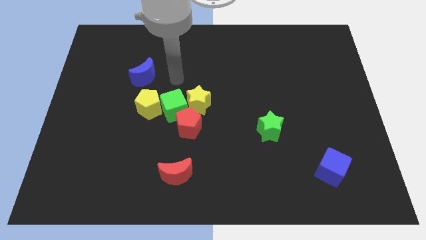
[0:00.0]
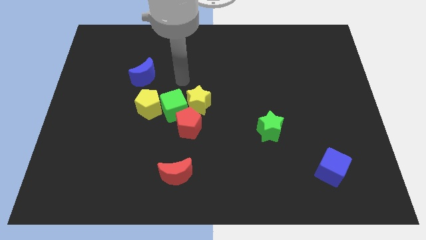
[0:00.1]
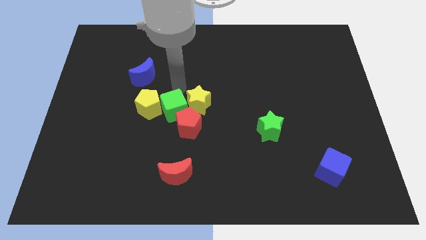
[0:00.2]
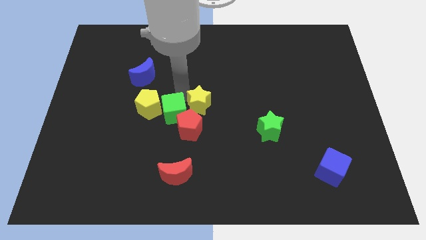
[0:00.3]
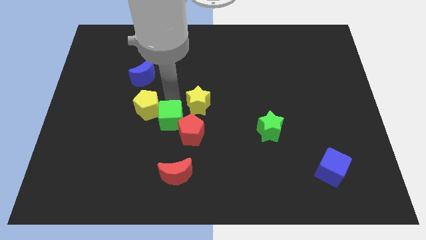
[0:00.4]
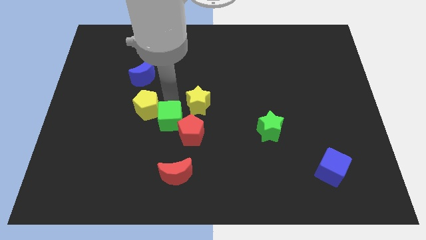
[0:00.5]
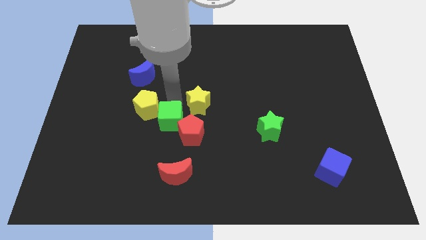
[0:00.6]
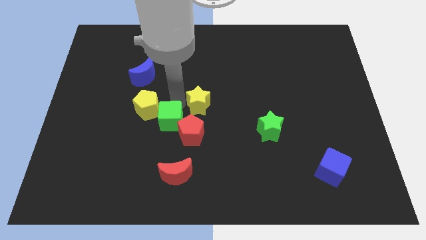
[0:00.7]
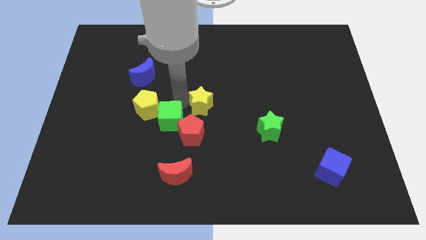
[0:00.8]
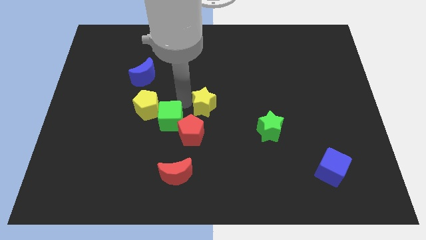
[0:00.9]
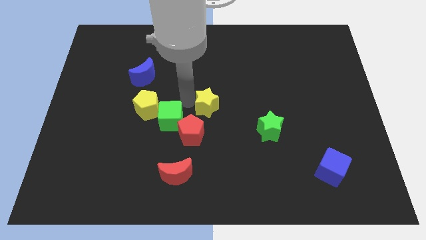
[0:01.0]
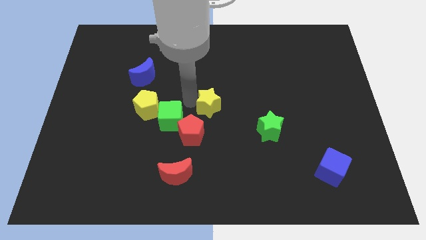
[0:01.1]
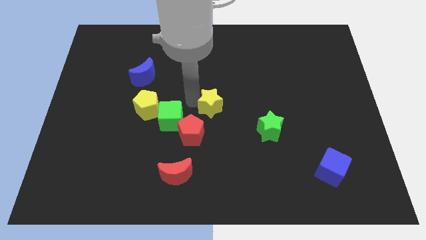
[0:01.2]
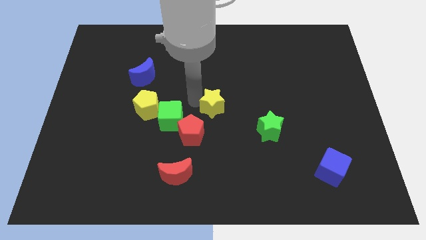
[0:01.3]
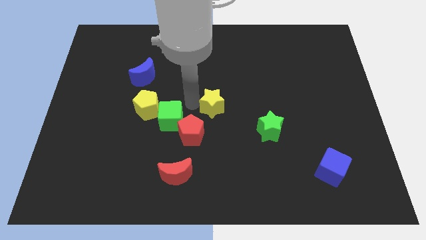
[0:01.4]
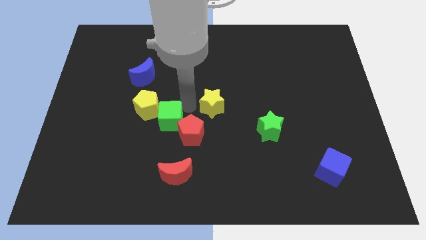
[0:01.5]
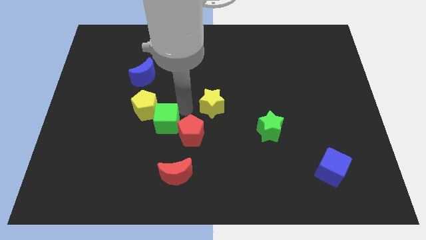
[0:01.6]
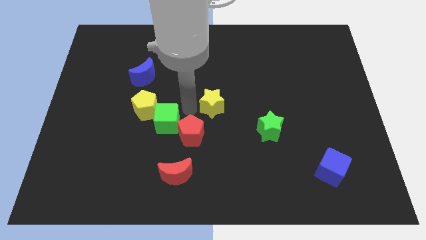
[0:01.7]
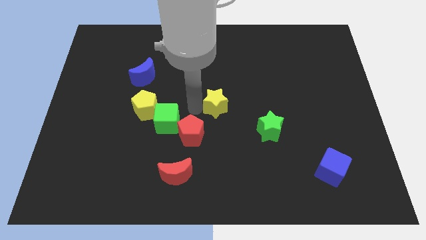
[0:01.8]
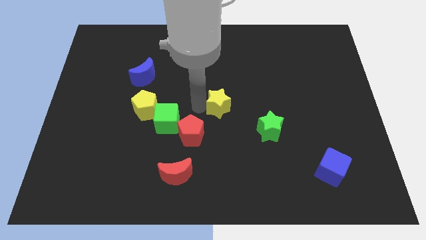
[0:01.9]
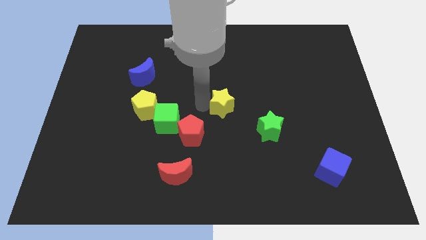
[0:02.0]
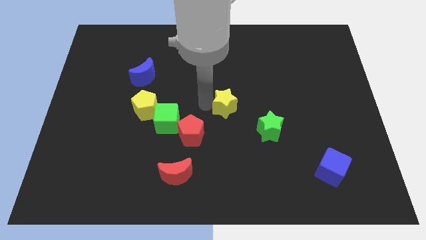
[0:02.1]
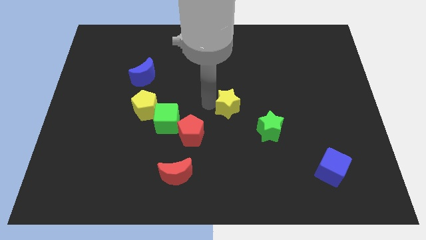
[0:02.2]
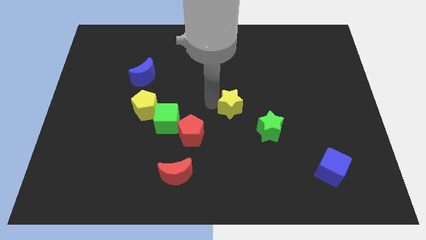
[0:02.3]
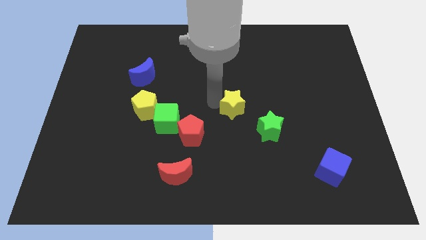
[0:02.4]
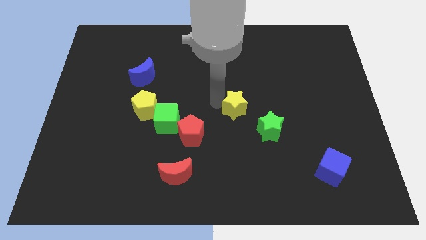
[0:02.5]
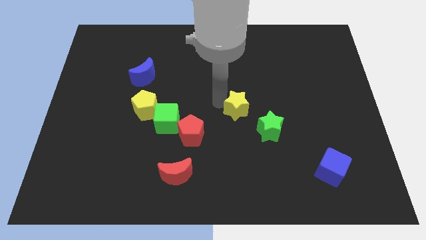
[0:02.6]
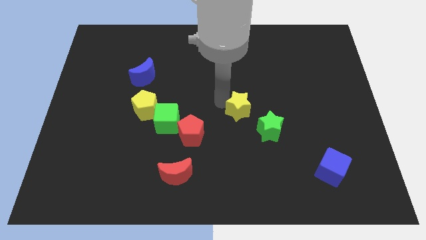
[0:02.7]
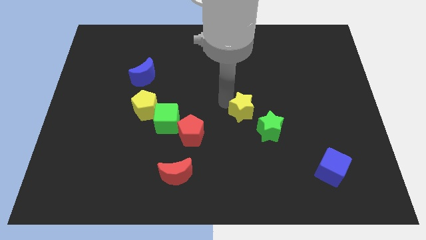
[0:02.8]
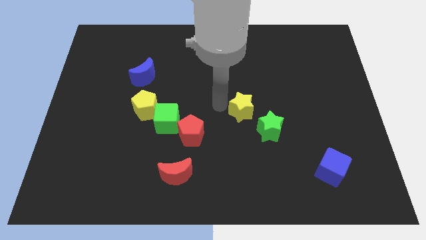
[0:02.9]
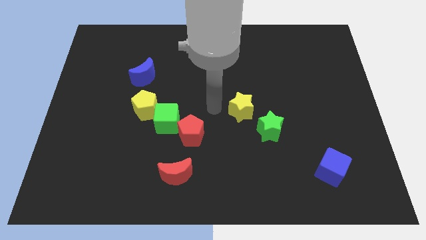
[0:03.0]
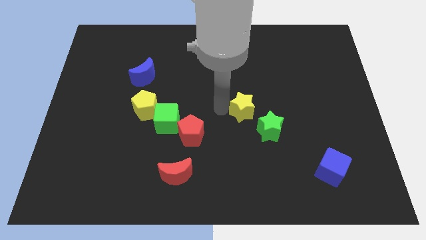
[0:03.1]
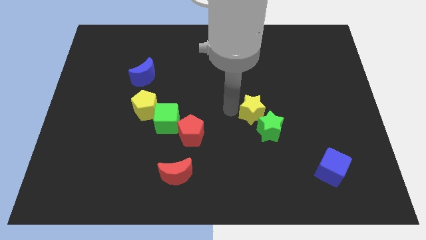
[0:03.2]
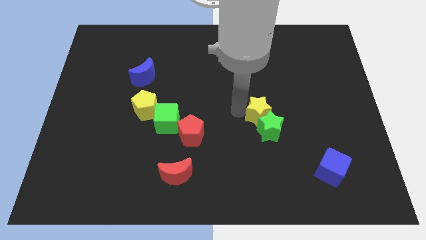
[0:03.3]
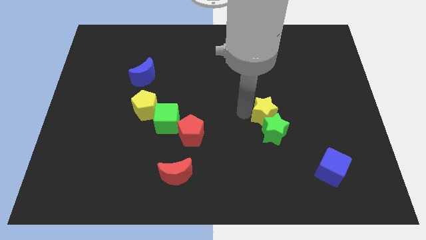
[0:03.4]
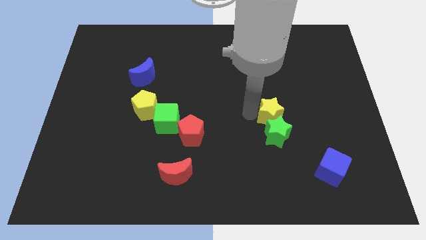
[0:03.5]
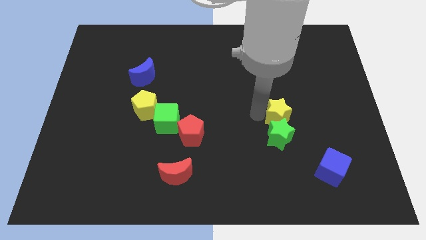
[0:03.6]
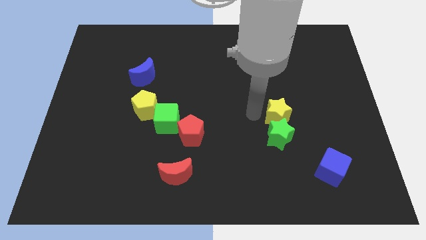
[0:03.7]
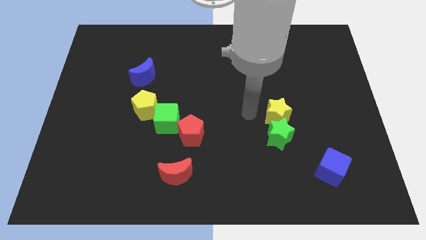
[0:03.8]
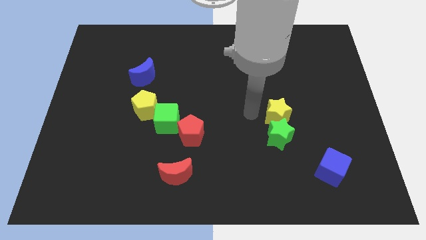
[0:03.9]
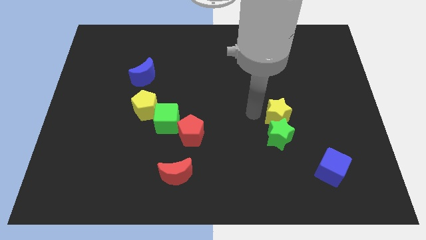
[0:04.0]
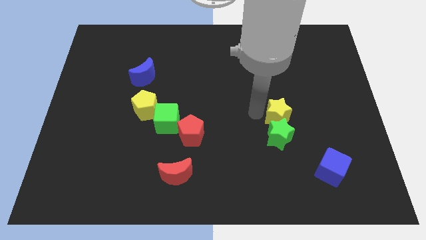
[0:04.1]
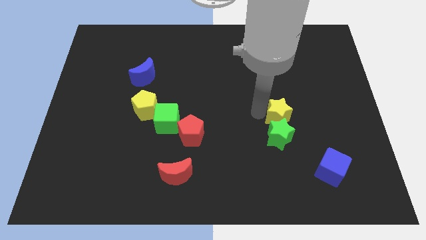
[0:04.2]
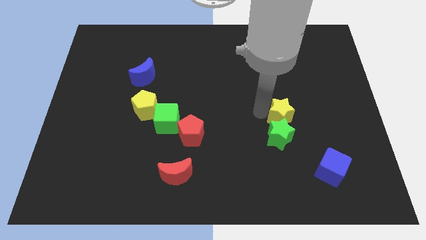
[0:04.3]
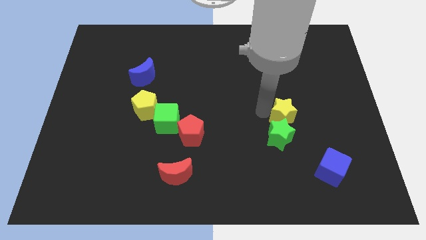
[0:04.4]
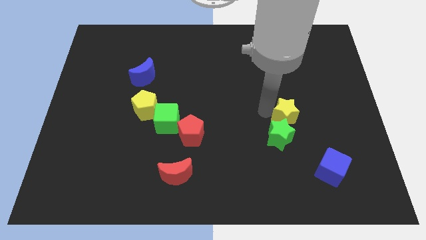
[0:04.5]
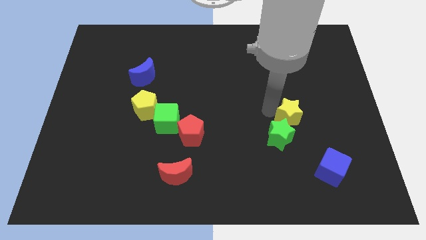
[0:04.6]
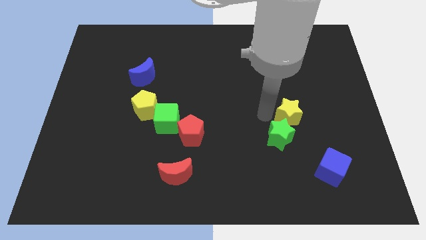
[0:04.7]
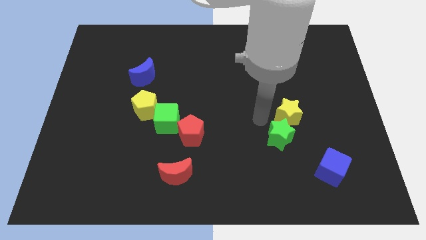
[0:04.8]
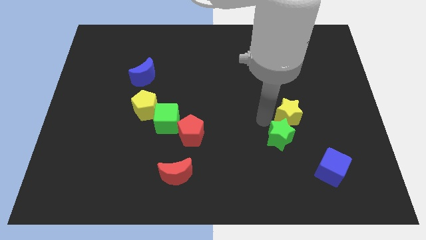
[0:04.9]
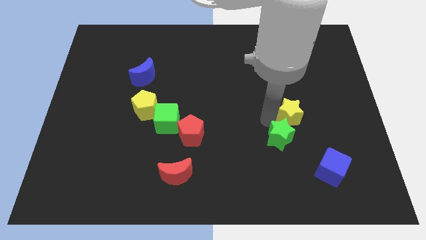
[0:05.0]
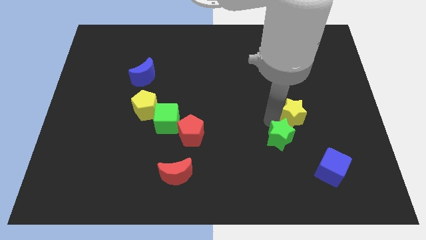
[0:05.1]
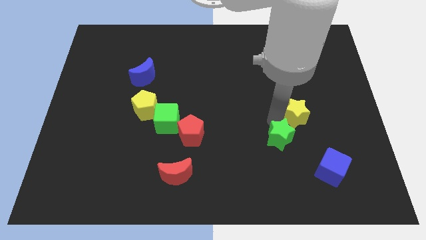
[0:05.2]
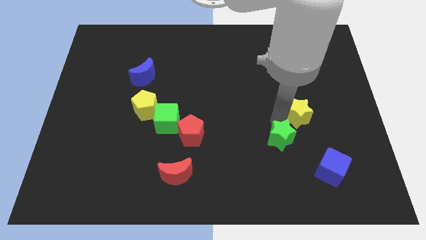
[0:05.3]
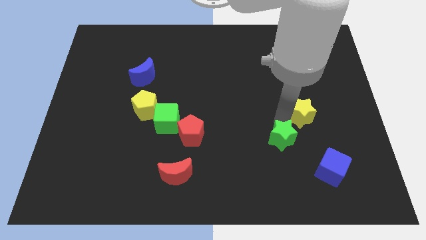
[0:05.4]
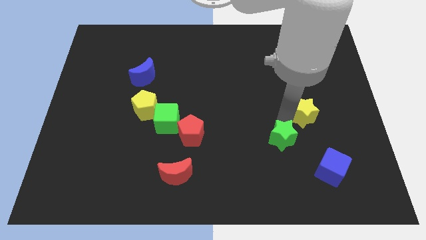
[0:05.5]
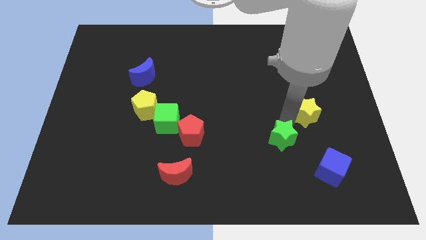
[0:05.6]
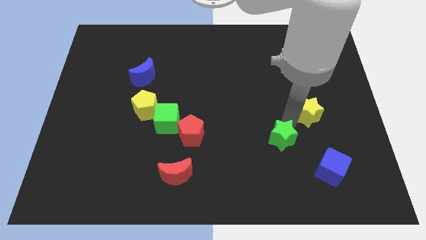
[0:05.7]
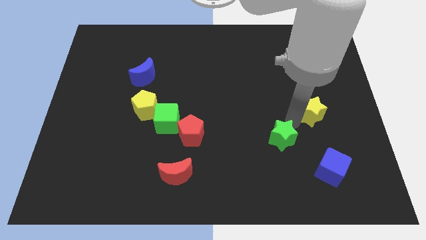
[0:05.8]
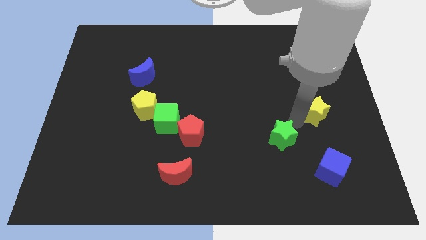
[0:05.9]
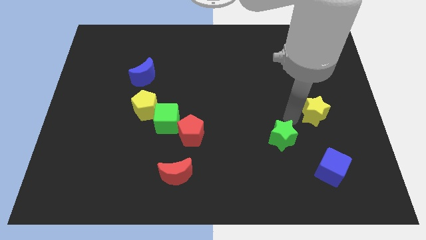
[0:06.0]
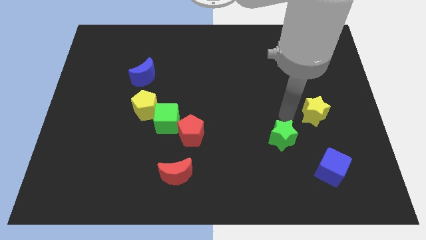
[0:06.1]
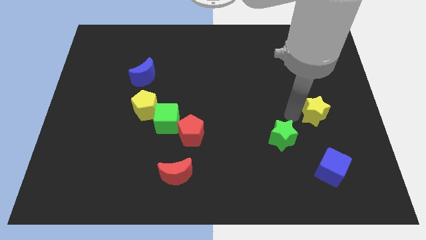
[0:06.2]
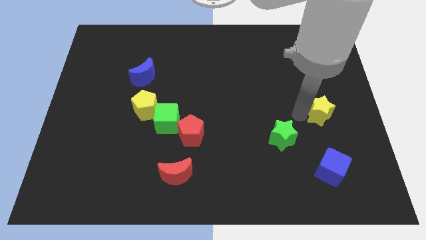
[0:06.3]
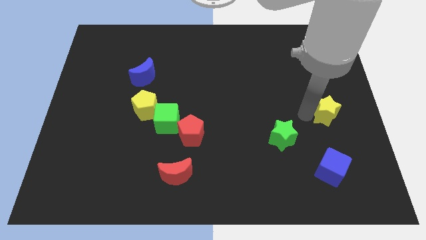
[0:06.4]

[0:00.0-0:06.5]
move the yellow star to the center right
